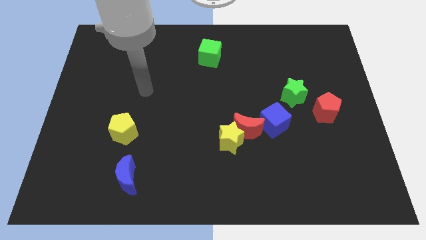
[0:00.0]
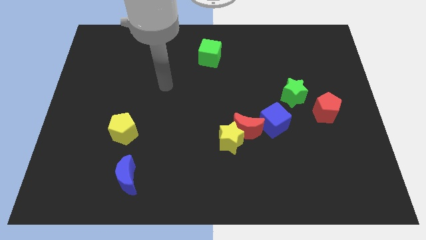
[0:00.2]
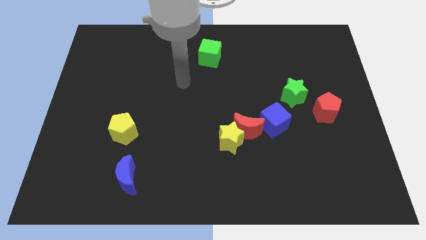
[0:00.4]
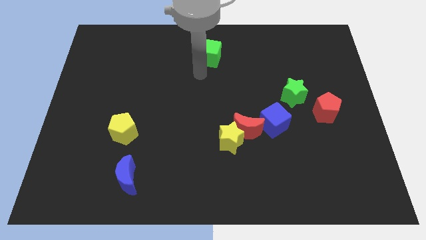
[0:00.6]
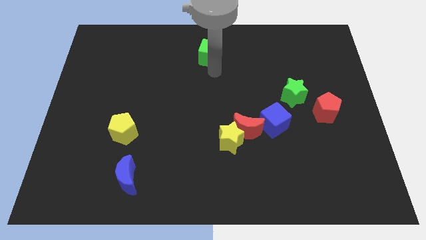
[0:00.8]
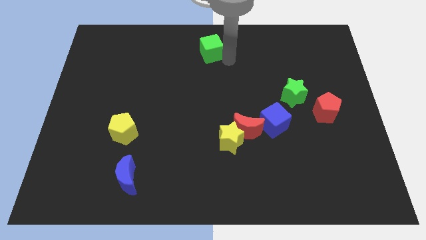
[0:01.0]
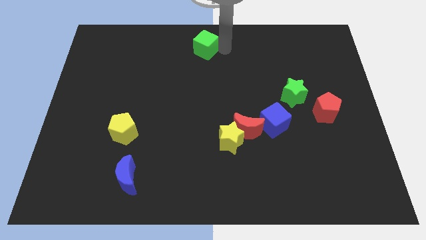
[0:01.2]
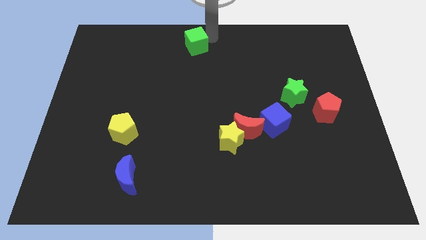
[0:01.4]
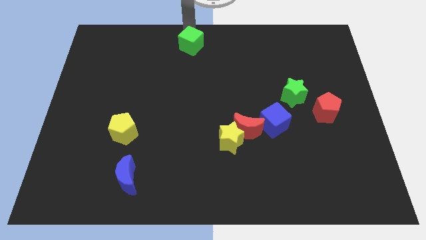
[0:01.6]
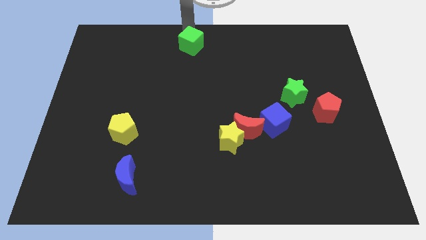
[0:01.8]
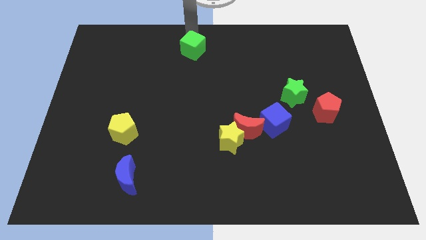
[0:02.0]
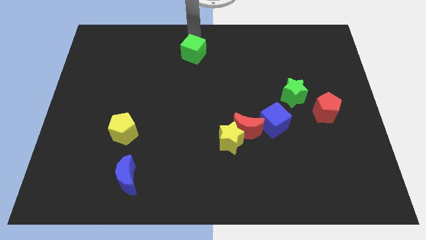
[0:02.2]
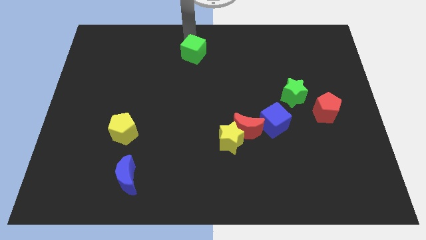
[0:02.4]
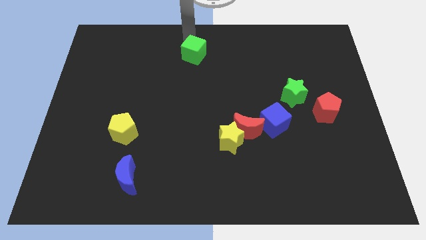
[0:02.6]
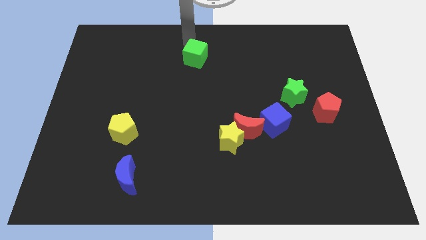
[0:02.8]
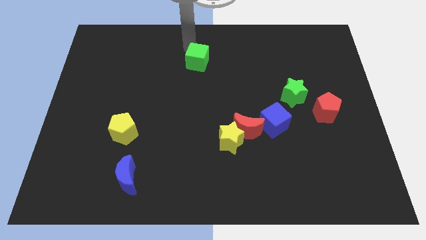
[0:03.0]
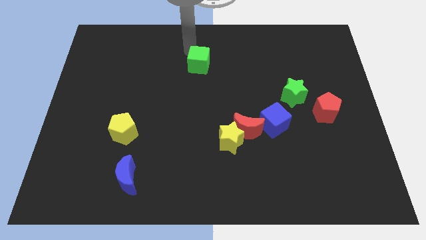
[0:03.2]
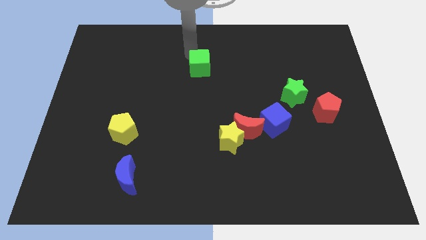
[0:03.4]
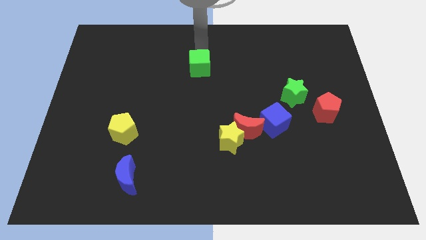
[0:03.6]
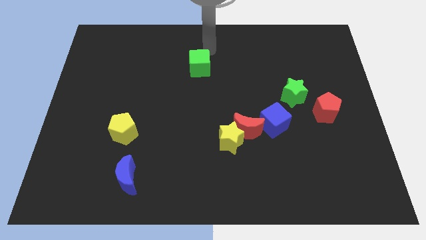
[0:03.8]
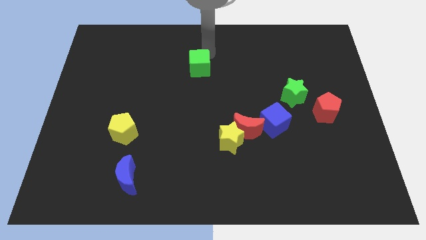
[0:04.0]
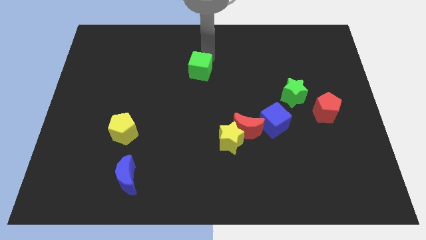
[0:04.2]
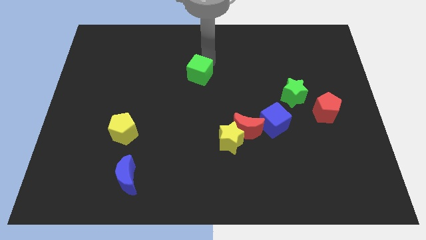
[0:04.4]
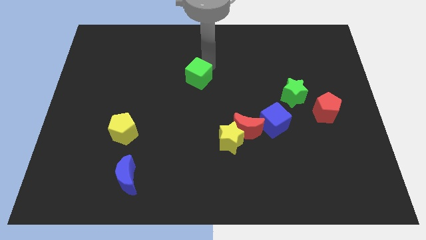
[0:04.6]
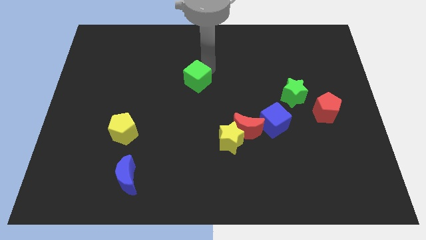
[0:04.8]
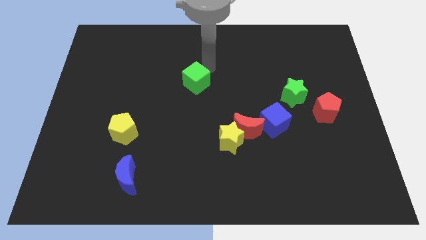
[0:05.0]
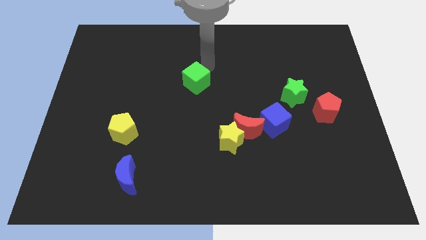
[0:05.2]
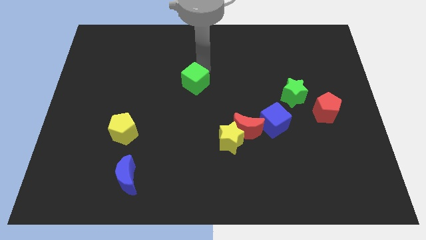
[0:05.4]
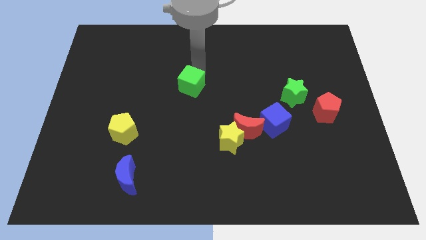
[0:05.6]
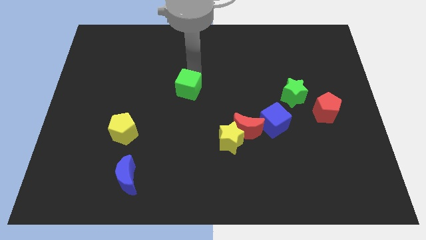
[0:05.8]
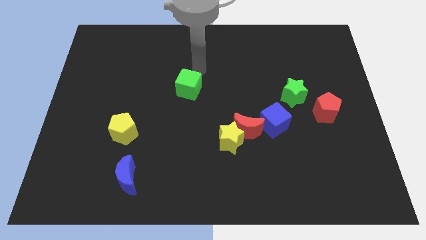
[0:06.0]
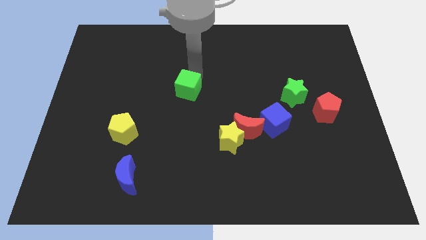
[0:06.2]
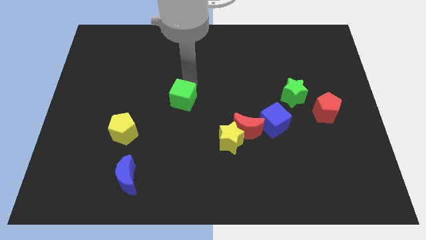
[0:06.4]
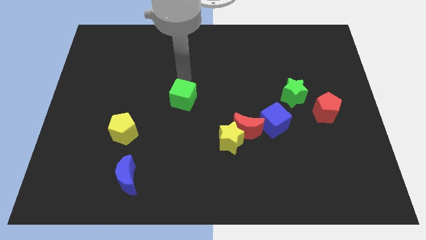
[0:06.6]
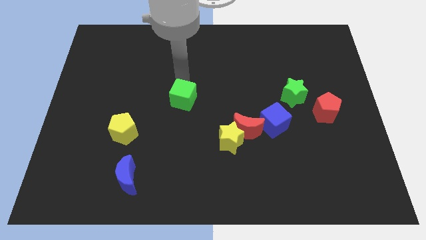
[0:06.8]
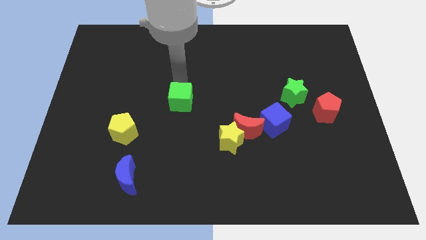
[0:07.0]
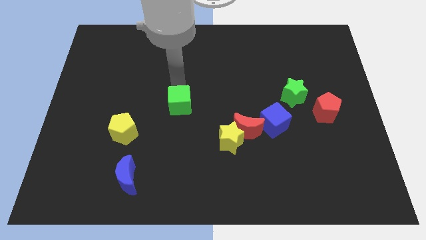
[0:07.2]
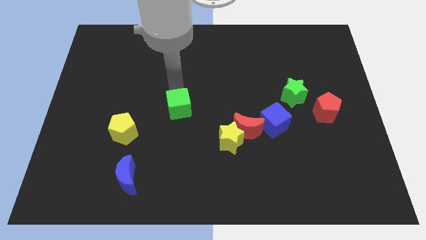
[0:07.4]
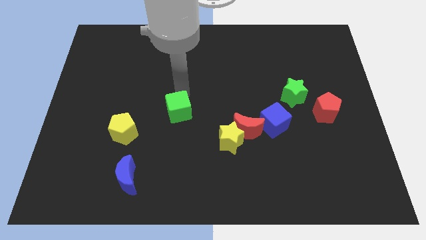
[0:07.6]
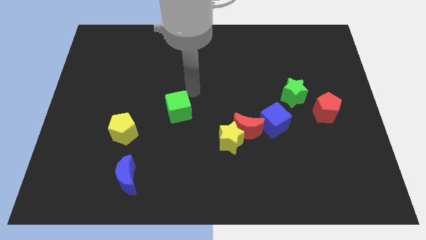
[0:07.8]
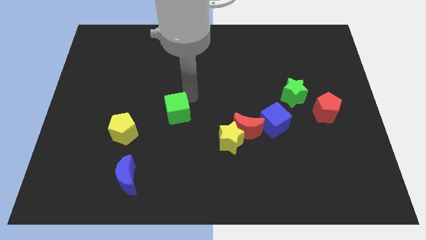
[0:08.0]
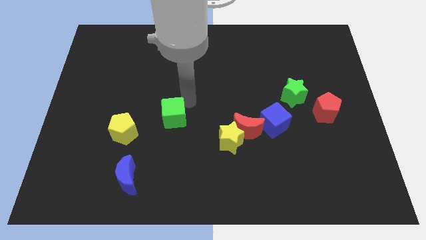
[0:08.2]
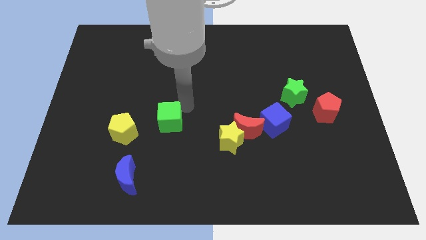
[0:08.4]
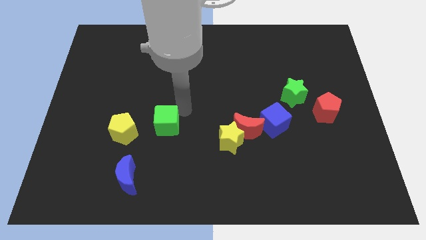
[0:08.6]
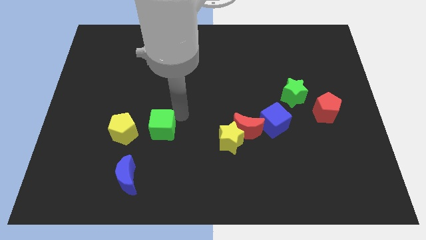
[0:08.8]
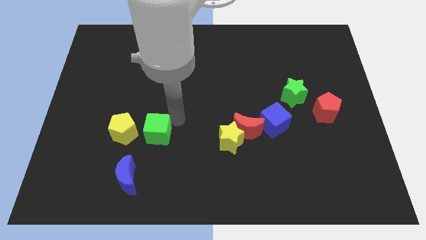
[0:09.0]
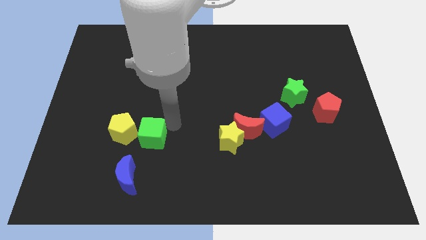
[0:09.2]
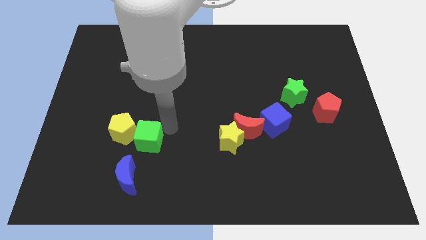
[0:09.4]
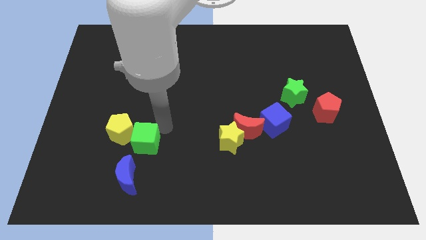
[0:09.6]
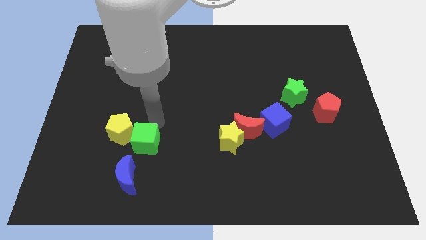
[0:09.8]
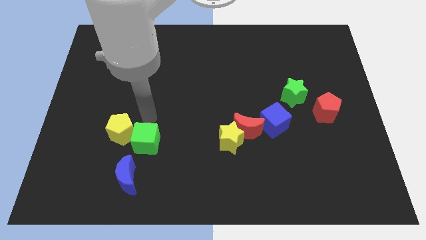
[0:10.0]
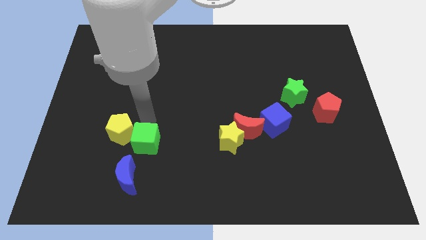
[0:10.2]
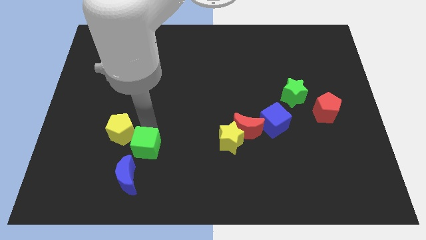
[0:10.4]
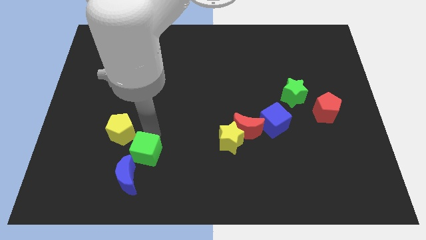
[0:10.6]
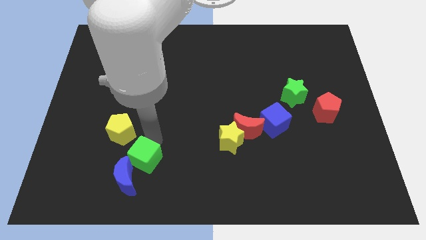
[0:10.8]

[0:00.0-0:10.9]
slide the green cube close to the blue moon

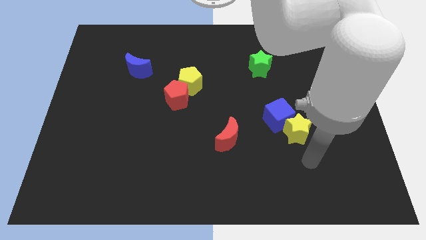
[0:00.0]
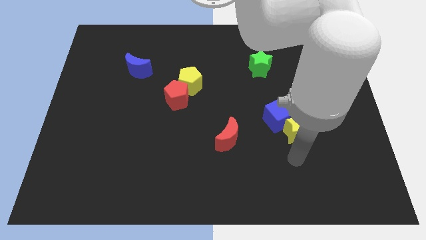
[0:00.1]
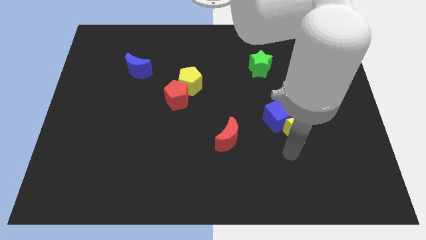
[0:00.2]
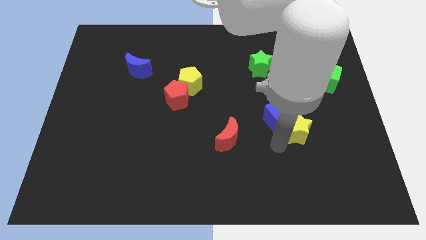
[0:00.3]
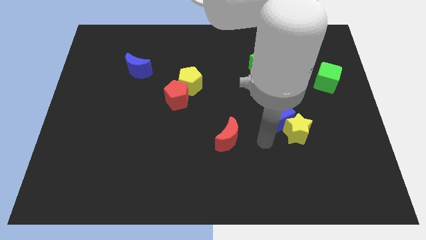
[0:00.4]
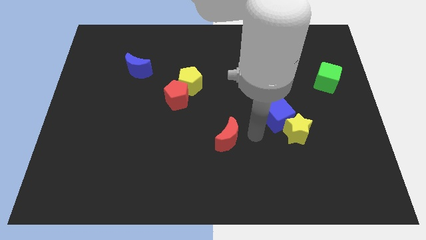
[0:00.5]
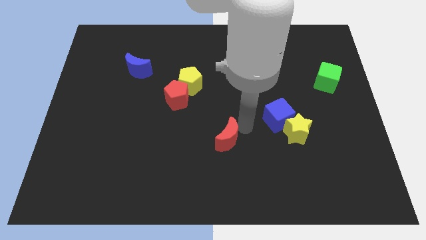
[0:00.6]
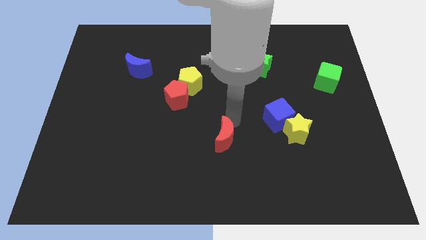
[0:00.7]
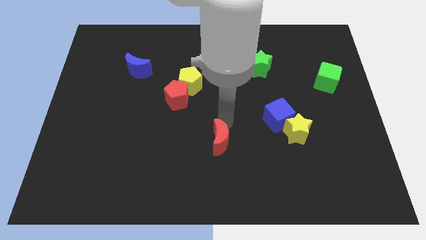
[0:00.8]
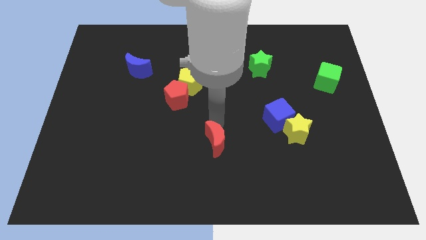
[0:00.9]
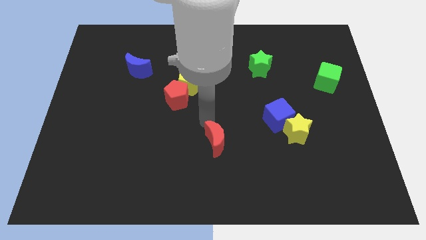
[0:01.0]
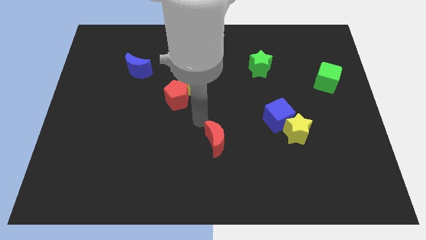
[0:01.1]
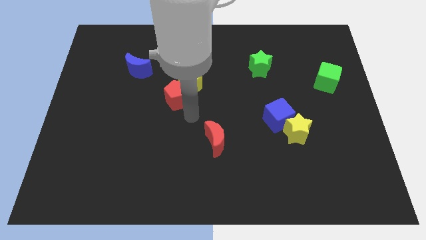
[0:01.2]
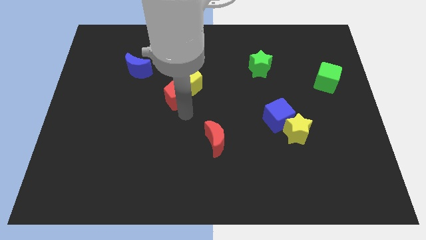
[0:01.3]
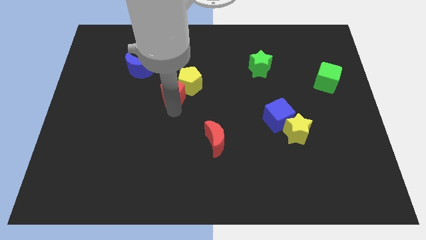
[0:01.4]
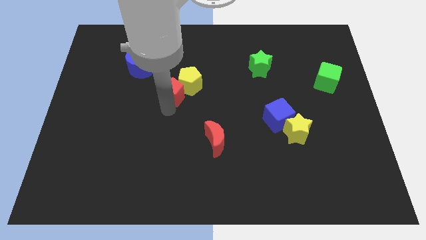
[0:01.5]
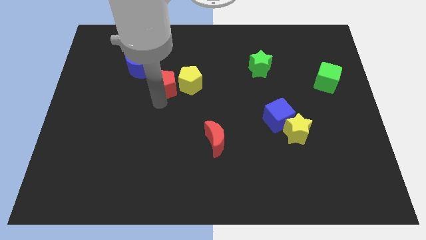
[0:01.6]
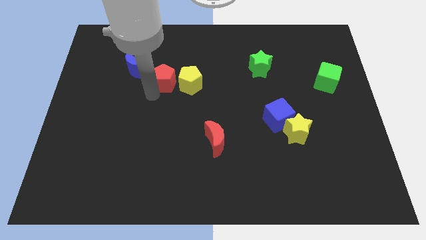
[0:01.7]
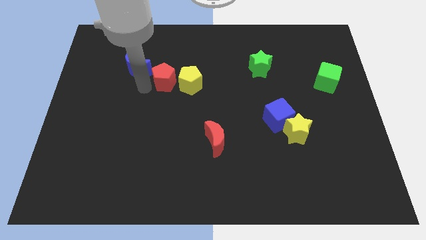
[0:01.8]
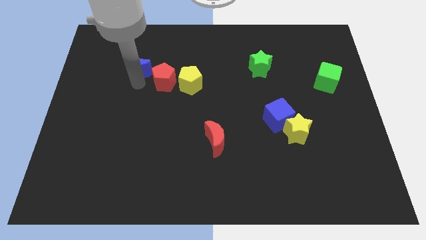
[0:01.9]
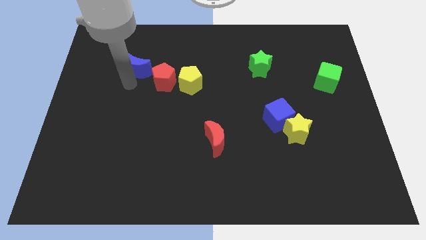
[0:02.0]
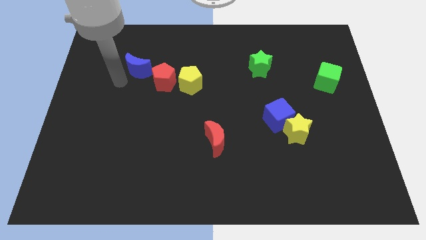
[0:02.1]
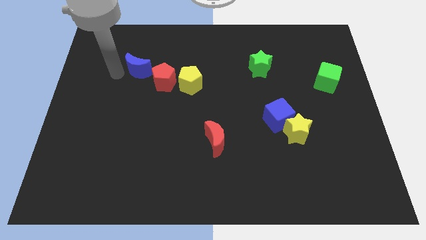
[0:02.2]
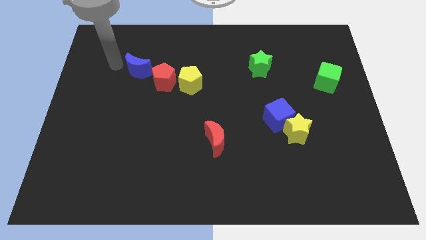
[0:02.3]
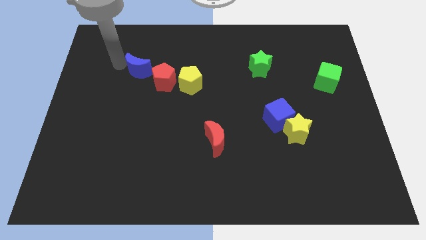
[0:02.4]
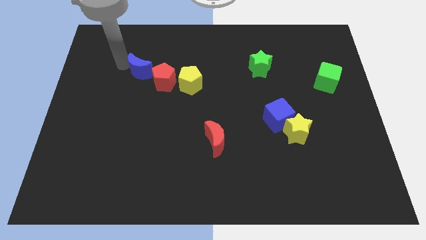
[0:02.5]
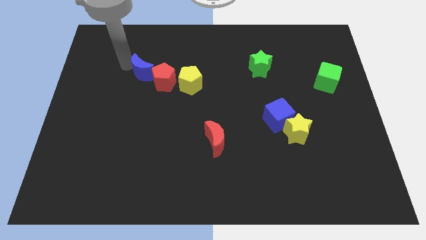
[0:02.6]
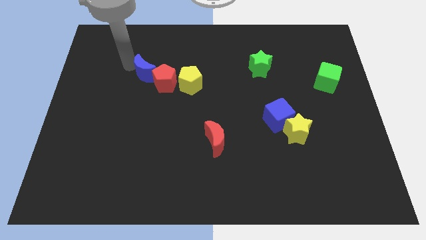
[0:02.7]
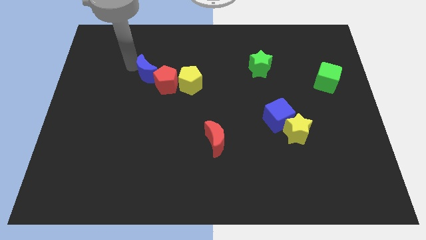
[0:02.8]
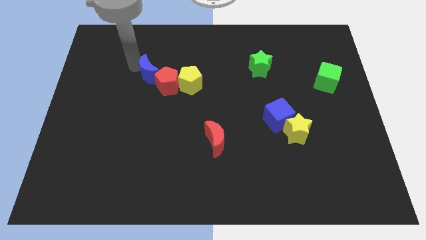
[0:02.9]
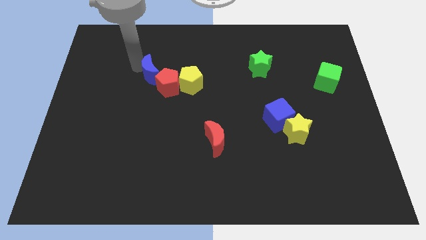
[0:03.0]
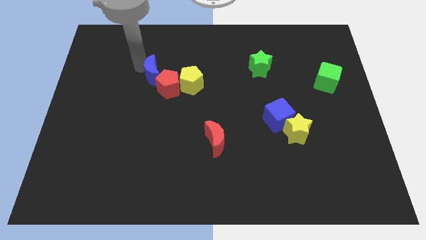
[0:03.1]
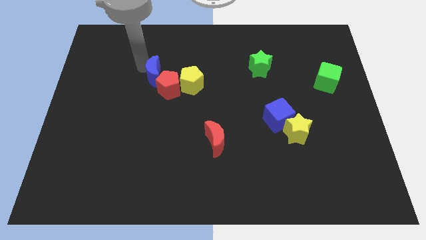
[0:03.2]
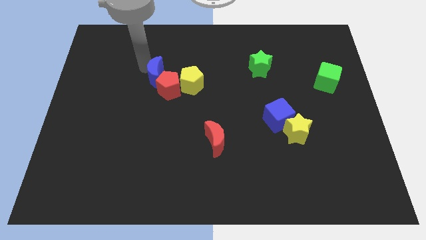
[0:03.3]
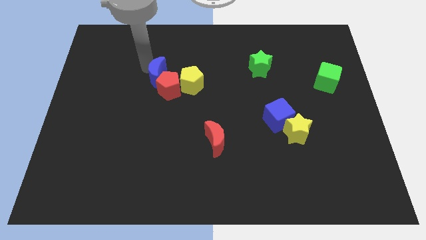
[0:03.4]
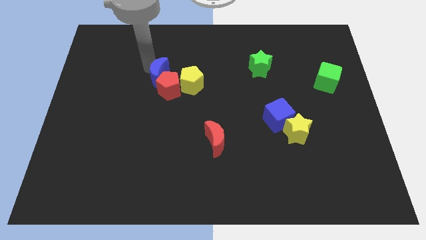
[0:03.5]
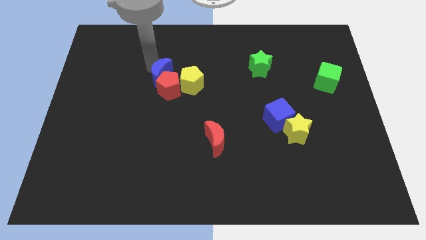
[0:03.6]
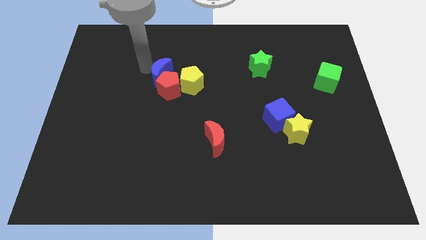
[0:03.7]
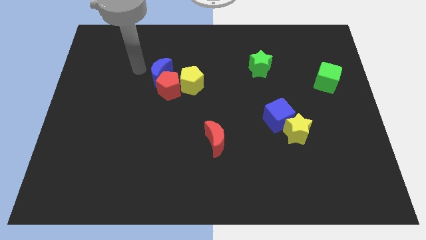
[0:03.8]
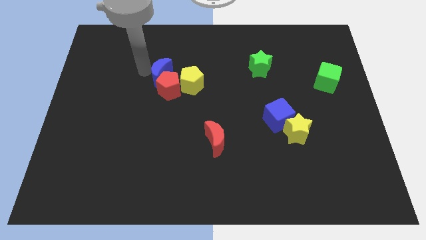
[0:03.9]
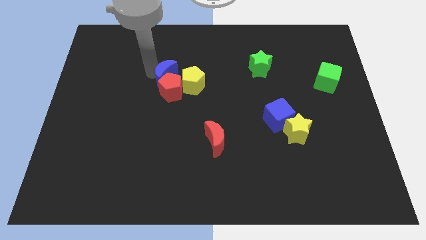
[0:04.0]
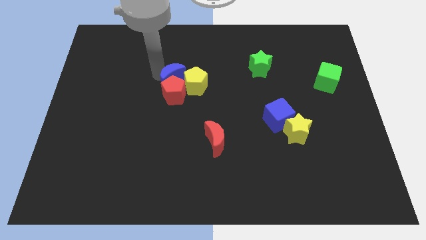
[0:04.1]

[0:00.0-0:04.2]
push the blue moon to the yellow pentagon
